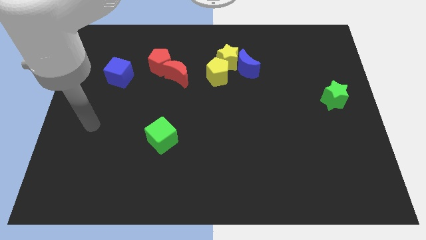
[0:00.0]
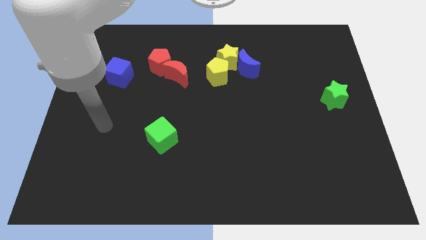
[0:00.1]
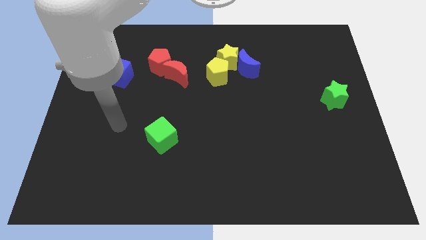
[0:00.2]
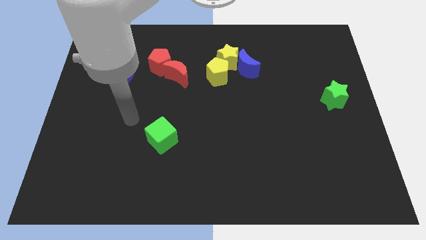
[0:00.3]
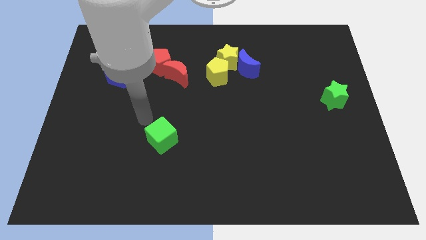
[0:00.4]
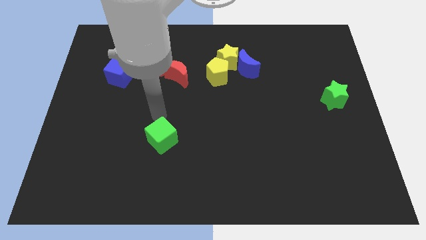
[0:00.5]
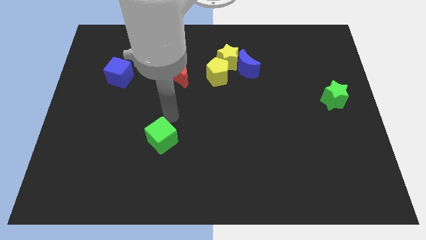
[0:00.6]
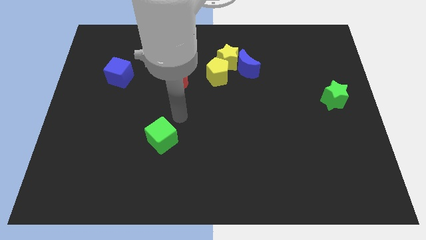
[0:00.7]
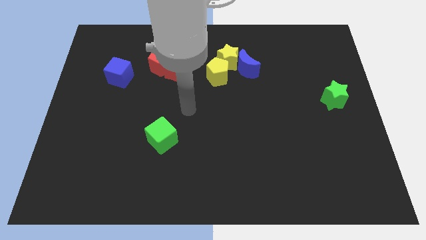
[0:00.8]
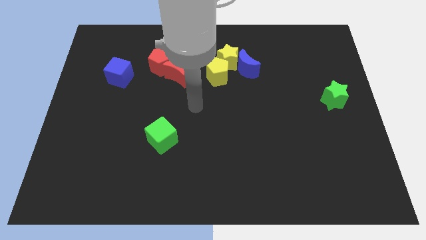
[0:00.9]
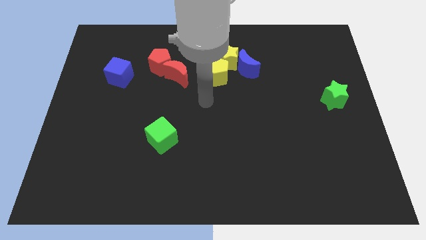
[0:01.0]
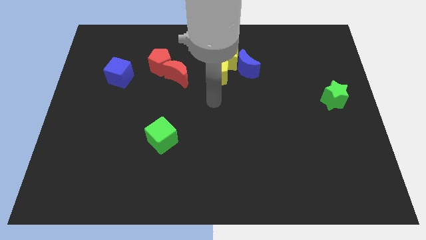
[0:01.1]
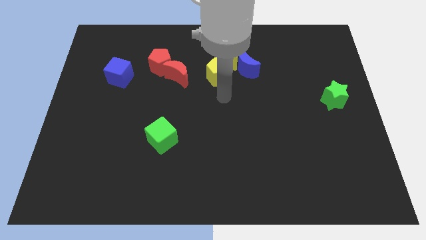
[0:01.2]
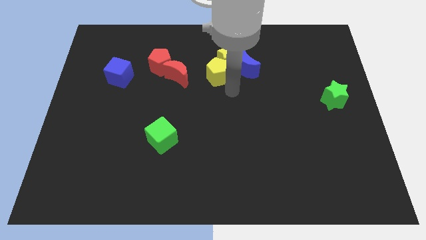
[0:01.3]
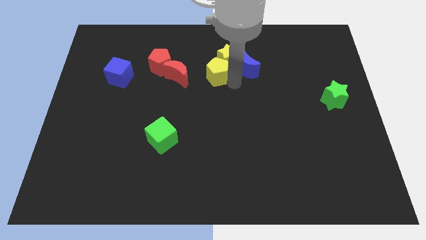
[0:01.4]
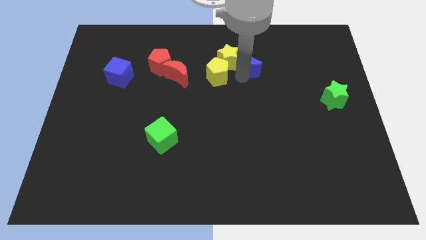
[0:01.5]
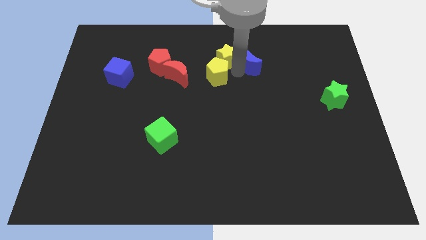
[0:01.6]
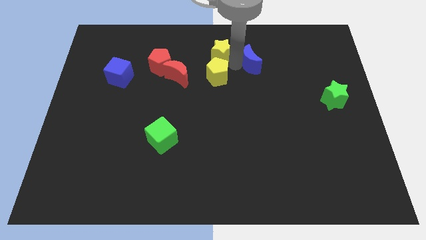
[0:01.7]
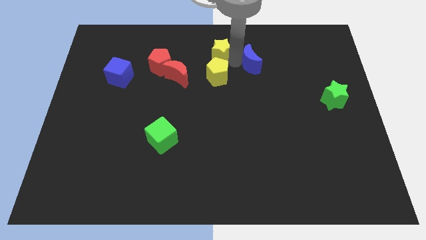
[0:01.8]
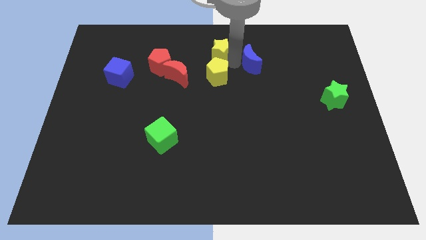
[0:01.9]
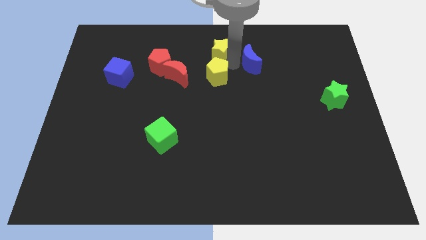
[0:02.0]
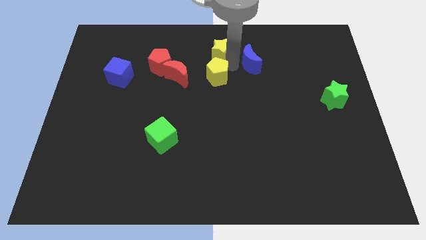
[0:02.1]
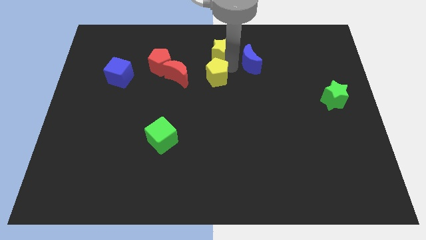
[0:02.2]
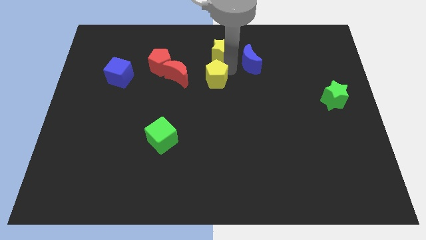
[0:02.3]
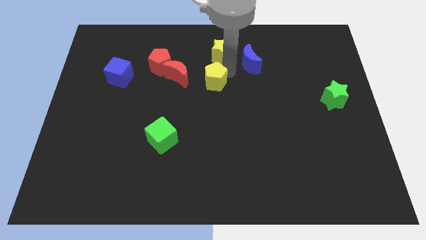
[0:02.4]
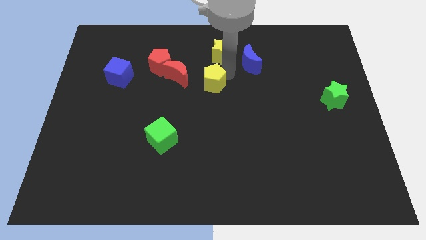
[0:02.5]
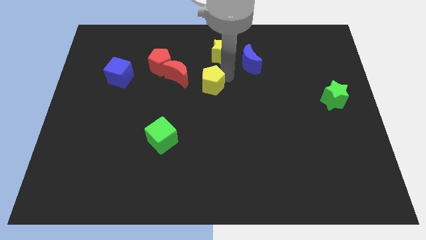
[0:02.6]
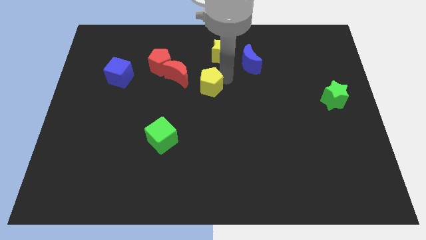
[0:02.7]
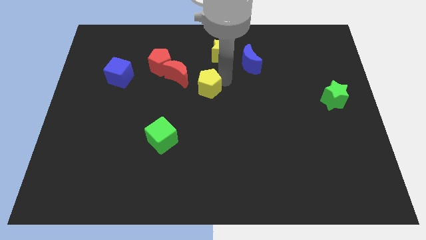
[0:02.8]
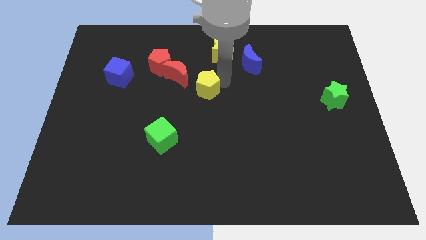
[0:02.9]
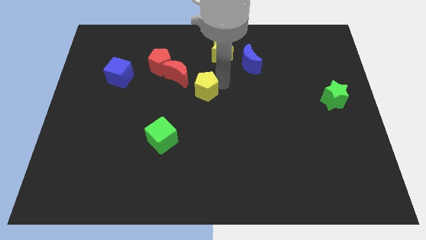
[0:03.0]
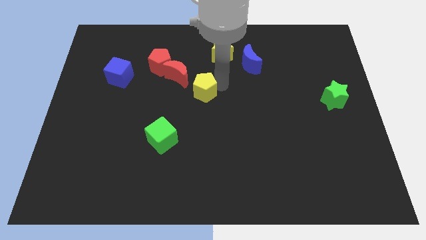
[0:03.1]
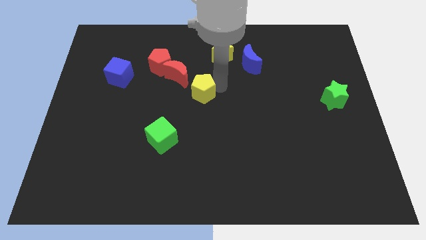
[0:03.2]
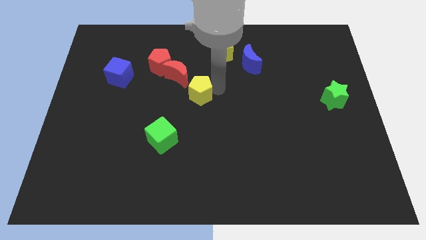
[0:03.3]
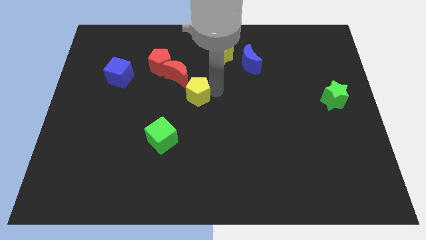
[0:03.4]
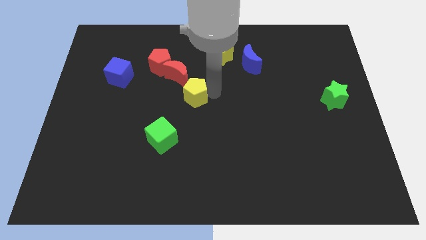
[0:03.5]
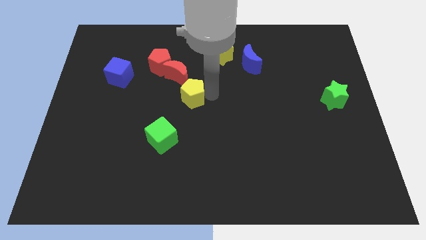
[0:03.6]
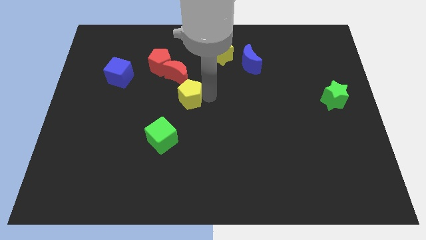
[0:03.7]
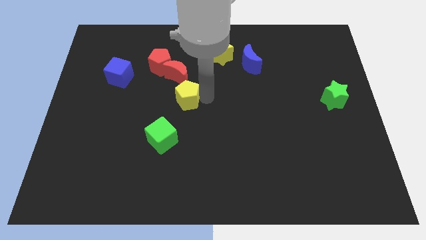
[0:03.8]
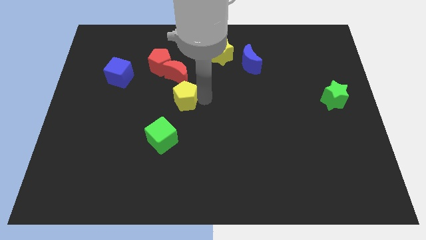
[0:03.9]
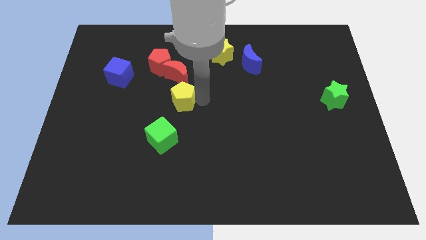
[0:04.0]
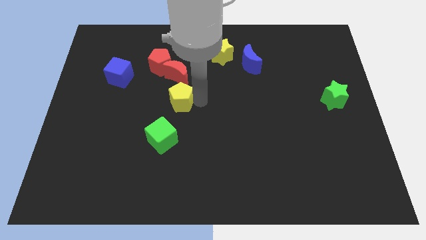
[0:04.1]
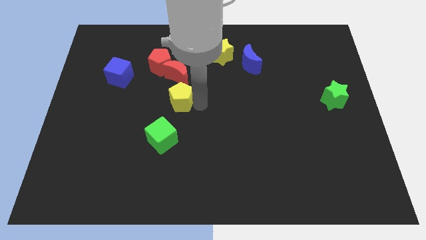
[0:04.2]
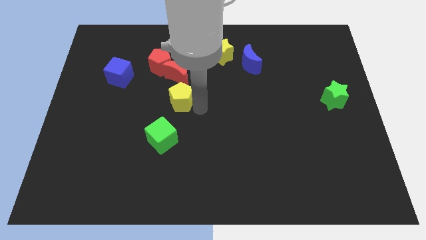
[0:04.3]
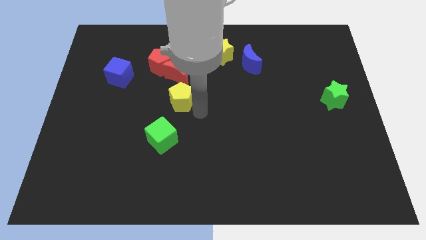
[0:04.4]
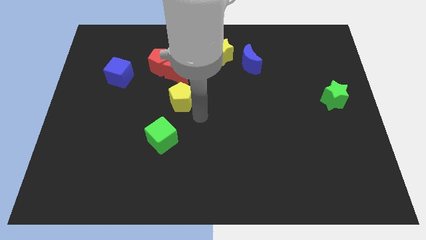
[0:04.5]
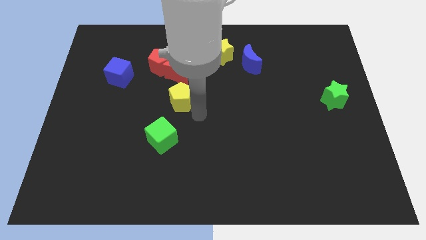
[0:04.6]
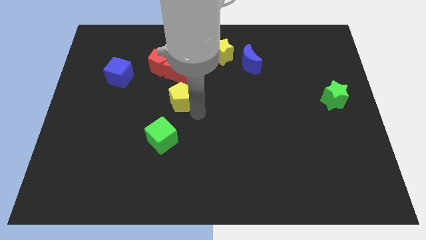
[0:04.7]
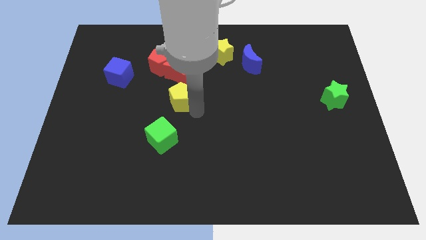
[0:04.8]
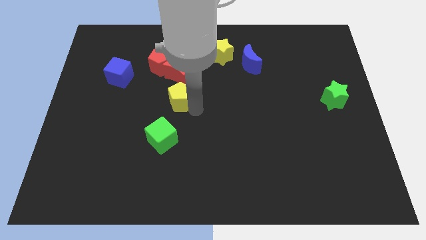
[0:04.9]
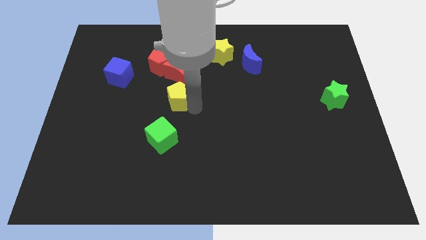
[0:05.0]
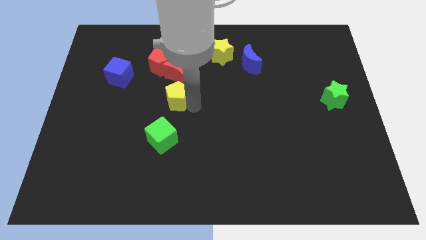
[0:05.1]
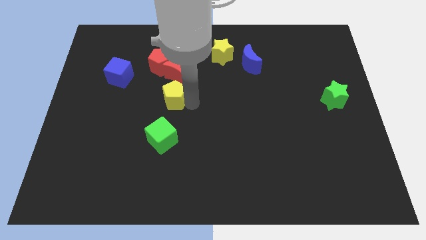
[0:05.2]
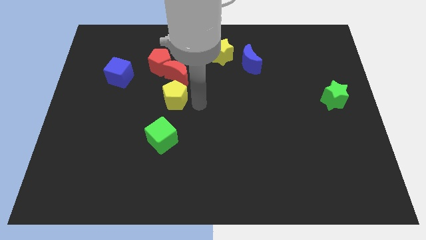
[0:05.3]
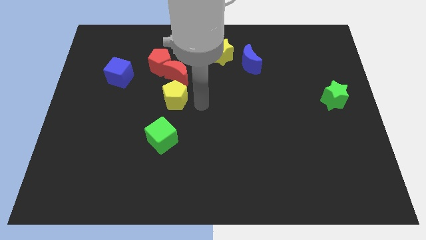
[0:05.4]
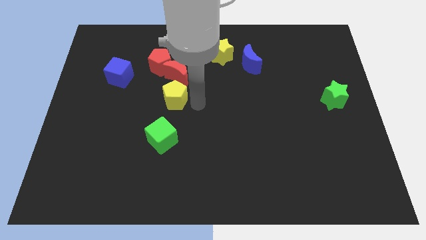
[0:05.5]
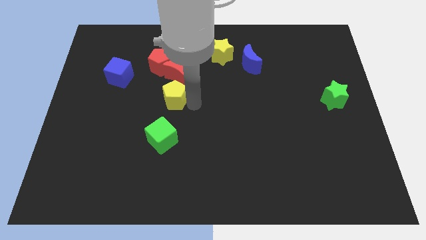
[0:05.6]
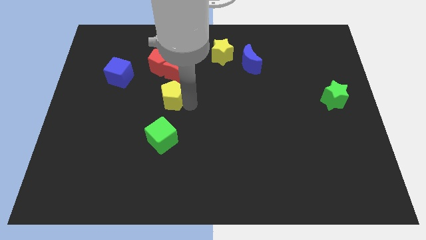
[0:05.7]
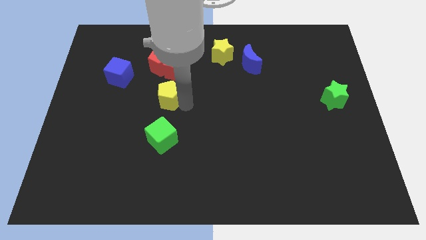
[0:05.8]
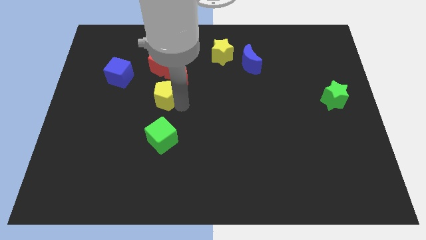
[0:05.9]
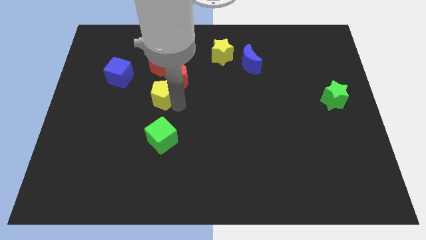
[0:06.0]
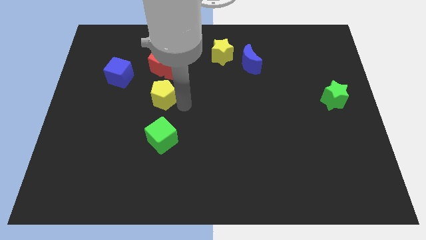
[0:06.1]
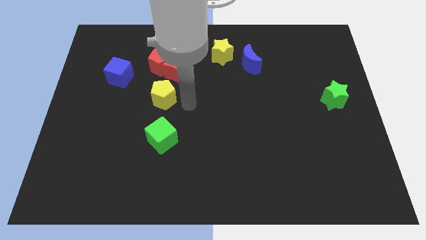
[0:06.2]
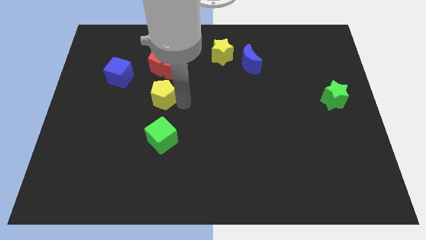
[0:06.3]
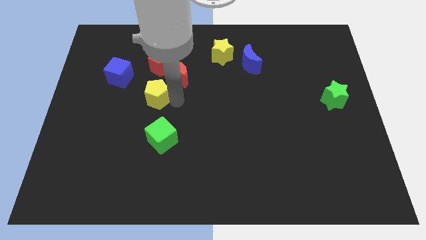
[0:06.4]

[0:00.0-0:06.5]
push the yellow pentagon diagonally down and to the right of the blue cube

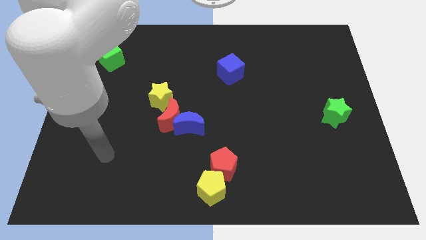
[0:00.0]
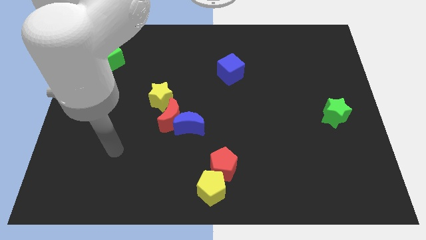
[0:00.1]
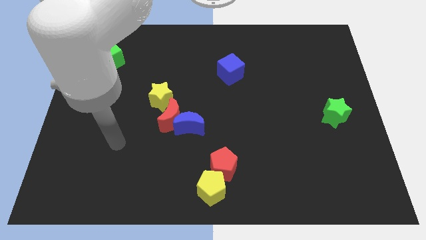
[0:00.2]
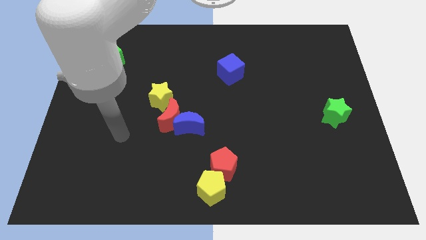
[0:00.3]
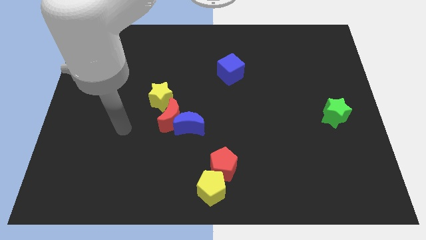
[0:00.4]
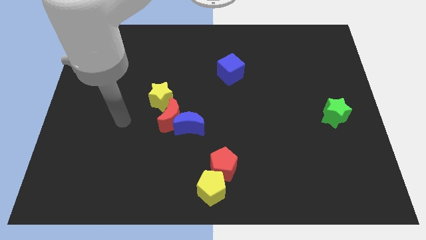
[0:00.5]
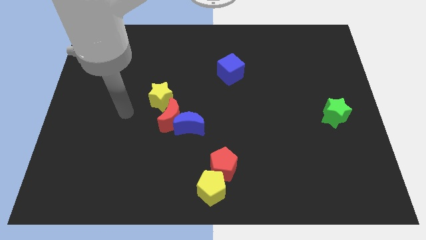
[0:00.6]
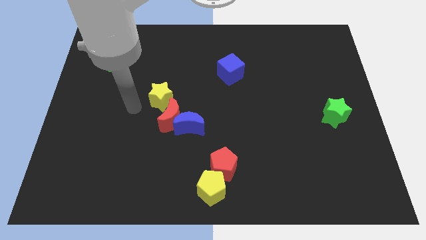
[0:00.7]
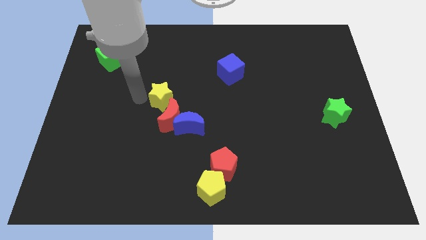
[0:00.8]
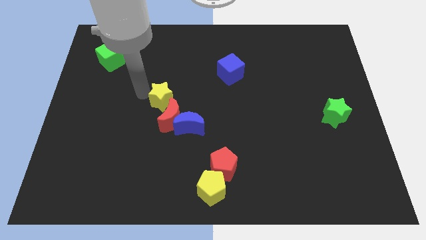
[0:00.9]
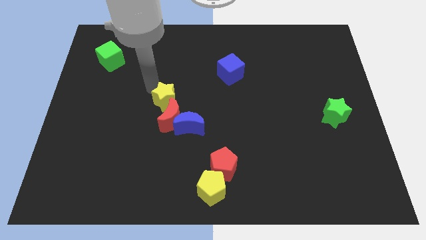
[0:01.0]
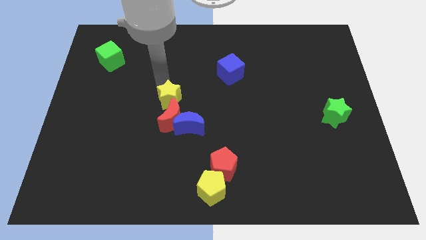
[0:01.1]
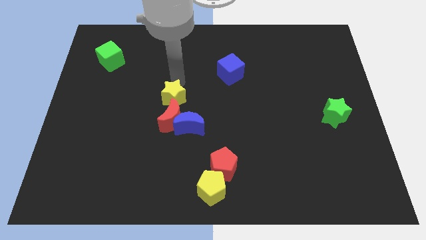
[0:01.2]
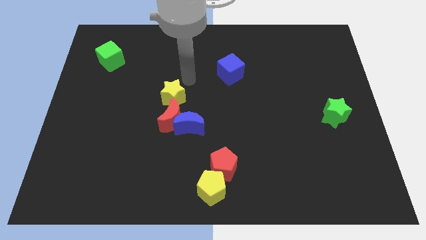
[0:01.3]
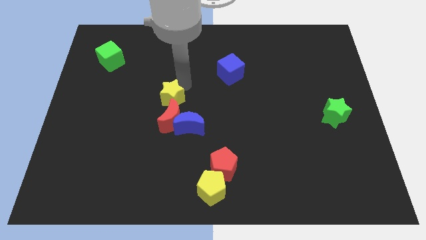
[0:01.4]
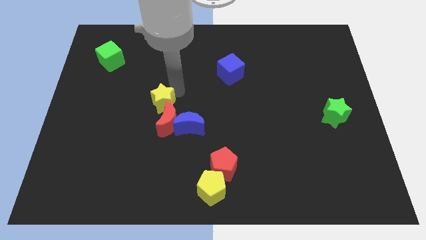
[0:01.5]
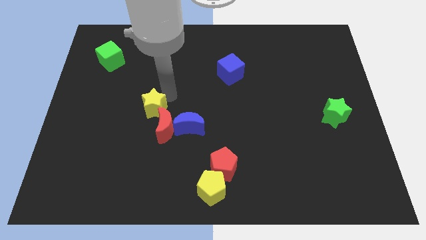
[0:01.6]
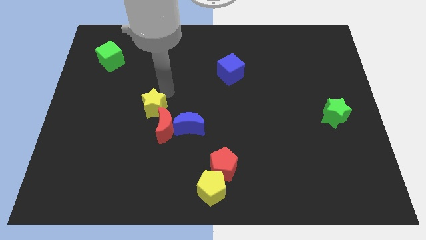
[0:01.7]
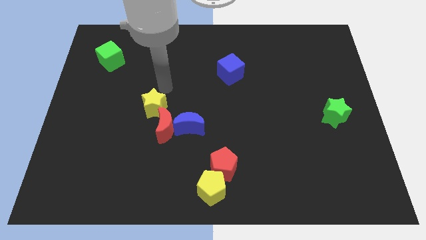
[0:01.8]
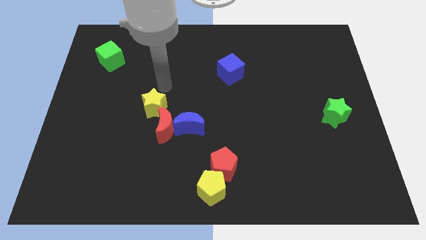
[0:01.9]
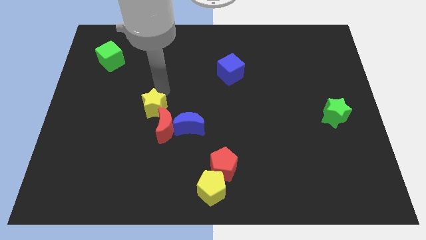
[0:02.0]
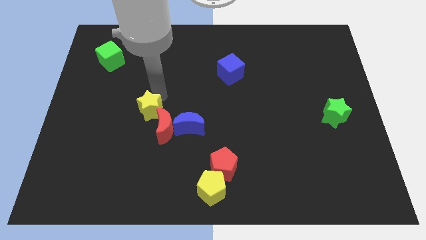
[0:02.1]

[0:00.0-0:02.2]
push the yellow star left of the blue moon
